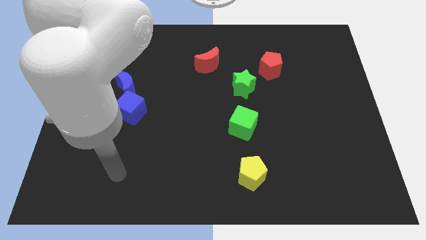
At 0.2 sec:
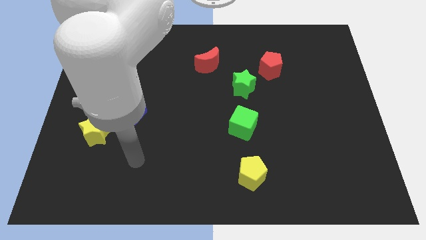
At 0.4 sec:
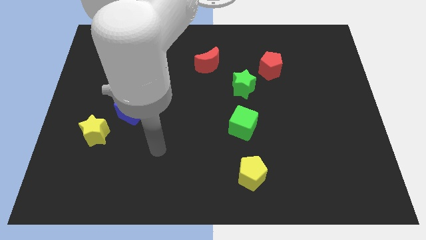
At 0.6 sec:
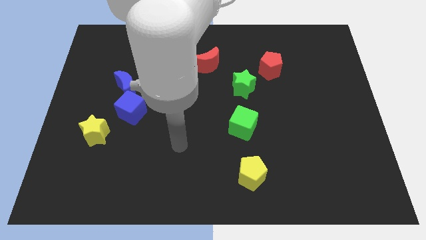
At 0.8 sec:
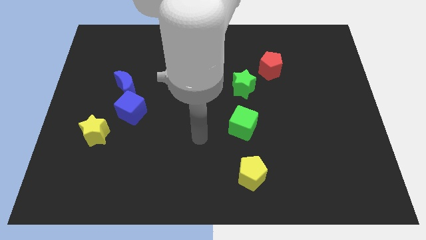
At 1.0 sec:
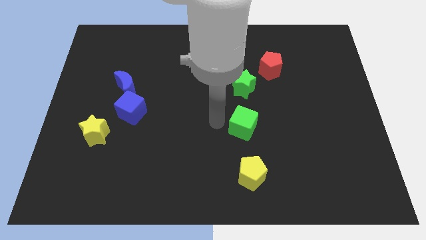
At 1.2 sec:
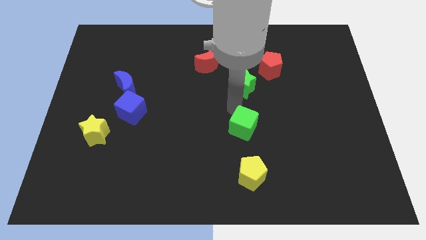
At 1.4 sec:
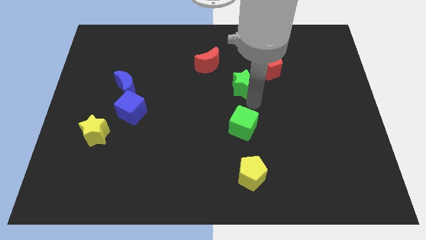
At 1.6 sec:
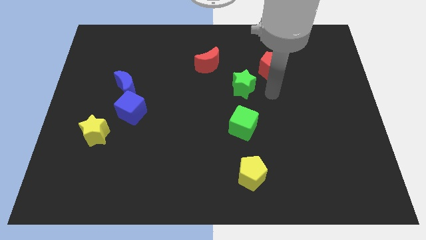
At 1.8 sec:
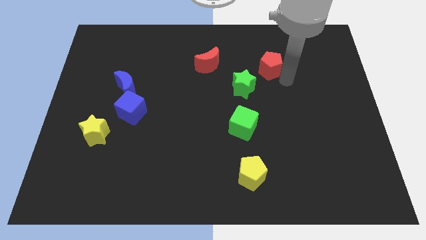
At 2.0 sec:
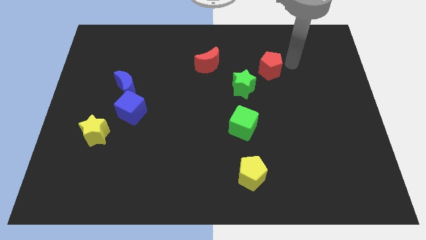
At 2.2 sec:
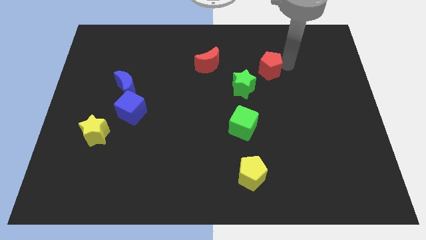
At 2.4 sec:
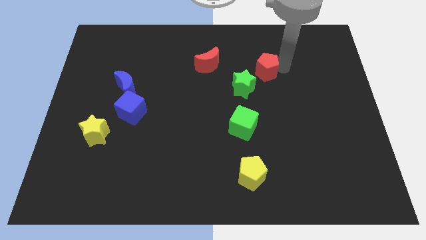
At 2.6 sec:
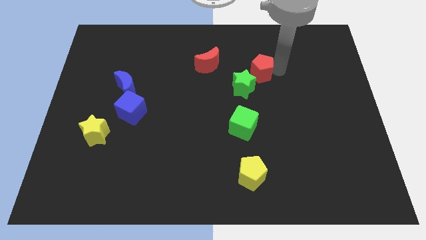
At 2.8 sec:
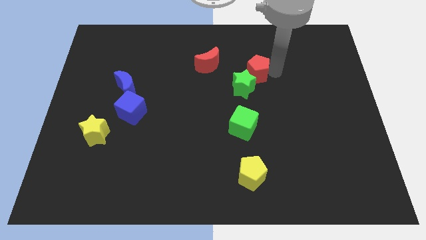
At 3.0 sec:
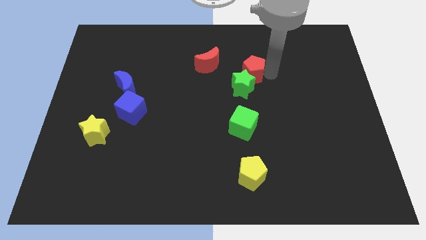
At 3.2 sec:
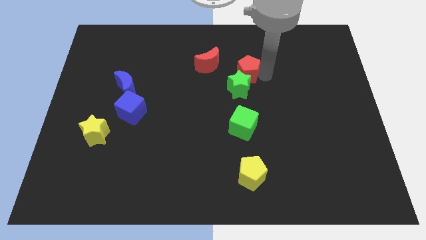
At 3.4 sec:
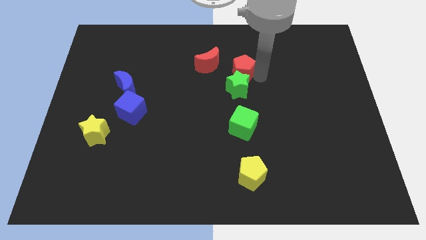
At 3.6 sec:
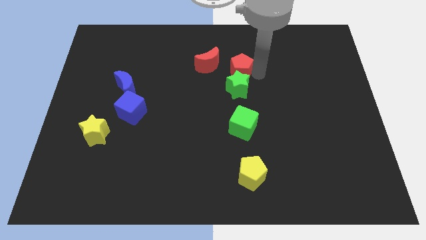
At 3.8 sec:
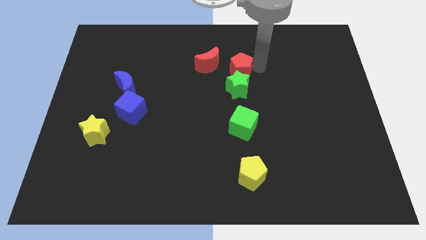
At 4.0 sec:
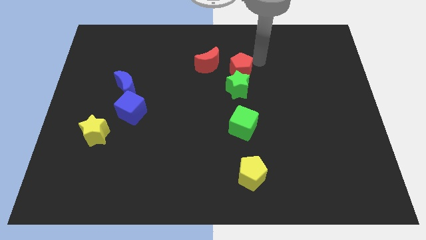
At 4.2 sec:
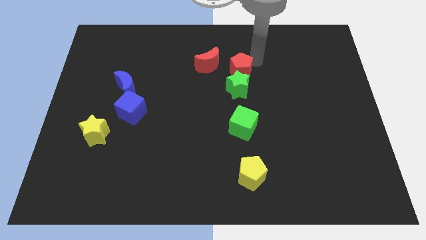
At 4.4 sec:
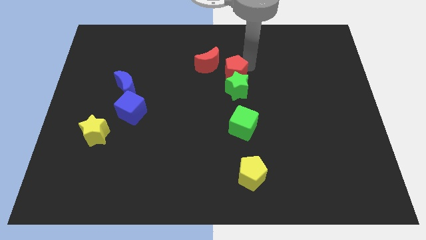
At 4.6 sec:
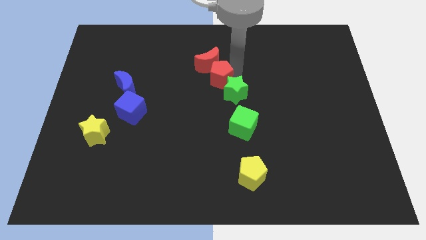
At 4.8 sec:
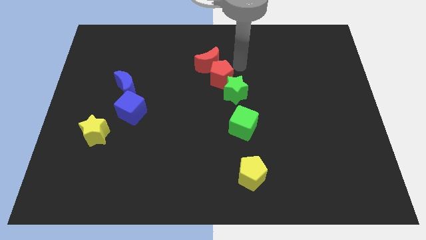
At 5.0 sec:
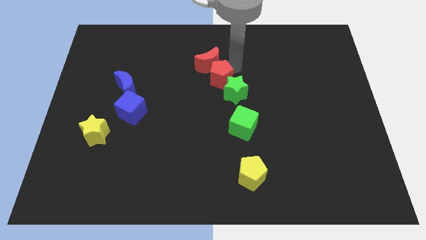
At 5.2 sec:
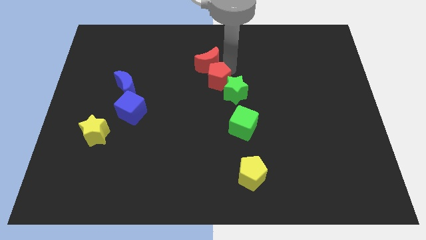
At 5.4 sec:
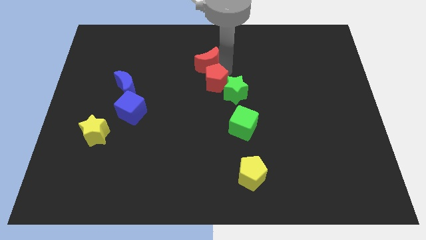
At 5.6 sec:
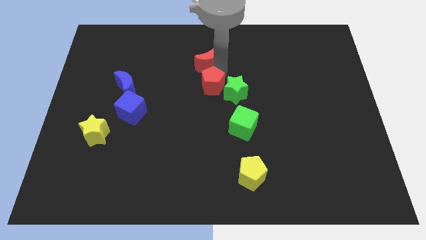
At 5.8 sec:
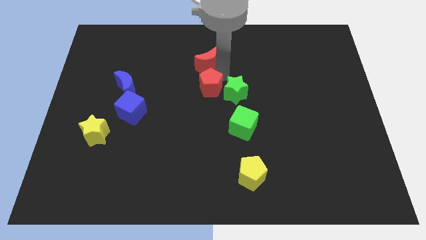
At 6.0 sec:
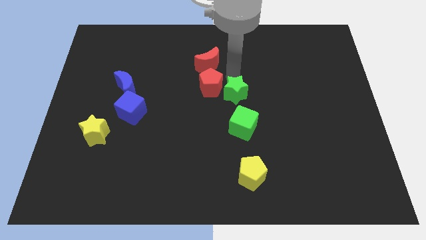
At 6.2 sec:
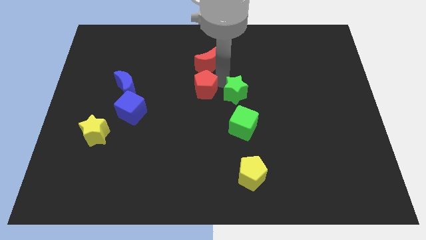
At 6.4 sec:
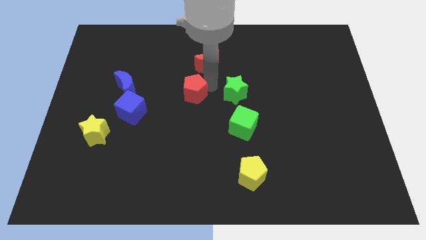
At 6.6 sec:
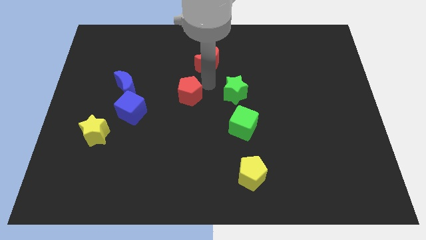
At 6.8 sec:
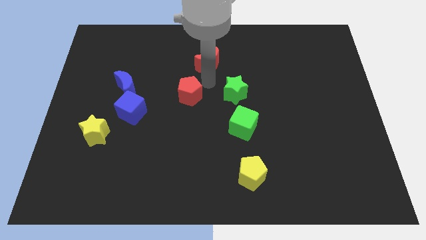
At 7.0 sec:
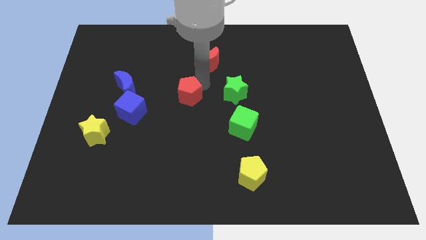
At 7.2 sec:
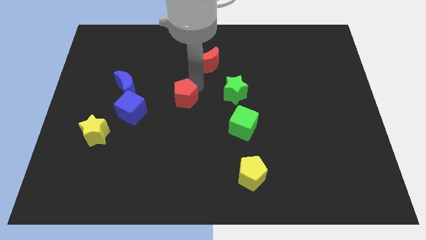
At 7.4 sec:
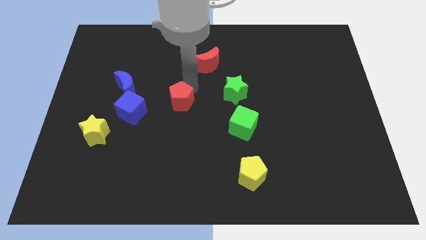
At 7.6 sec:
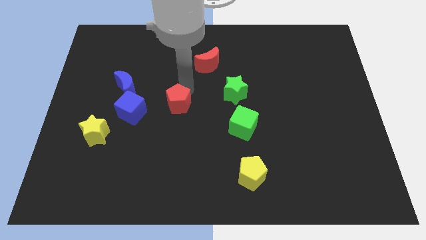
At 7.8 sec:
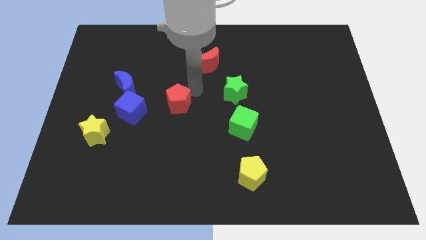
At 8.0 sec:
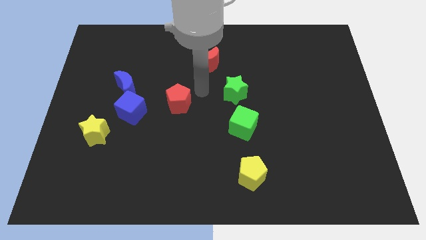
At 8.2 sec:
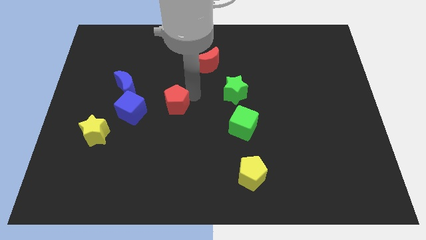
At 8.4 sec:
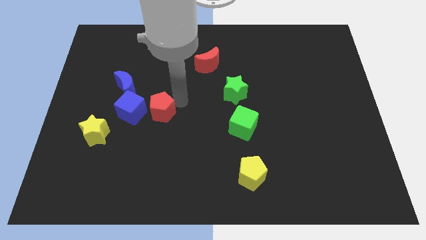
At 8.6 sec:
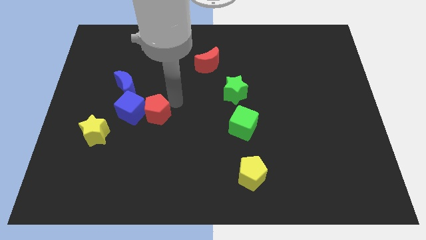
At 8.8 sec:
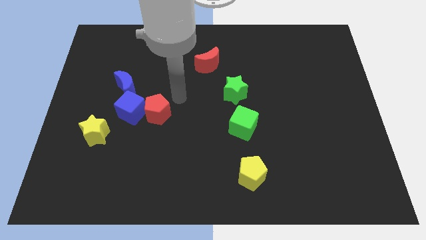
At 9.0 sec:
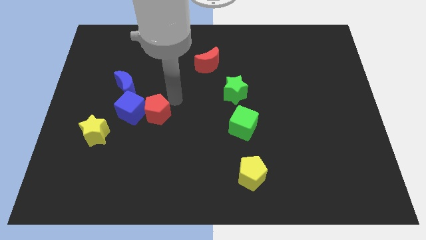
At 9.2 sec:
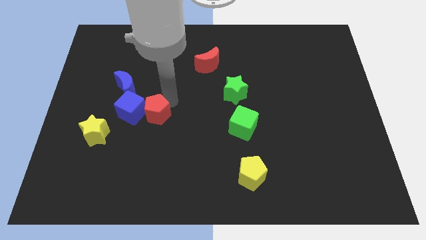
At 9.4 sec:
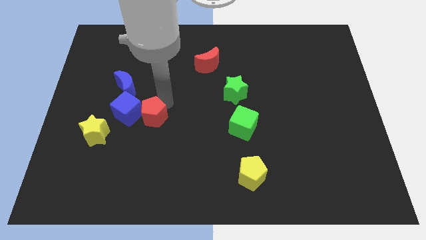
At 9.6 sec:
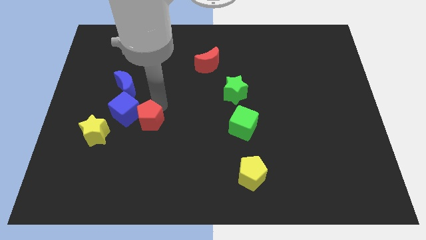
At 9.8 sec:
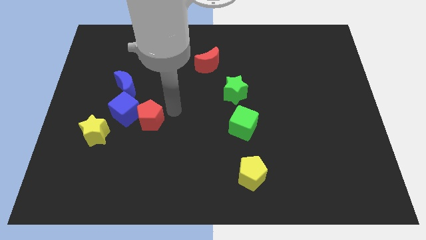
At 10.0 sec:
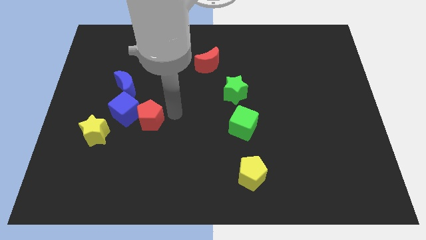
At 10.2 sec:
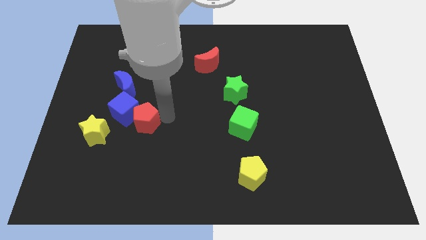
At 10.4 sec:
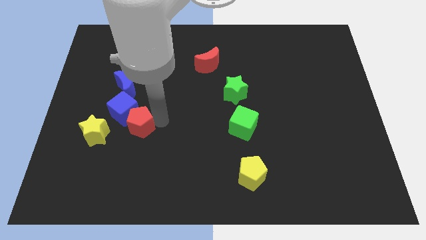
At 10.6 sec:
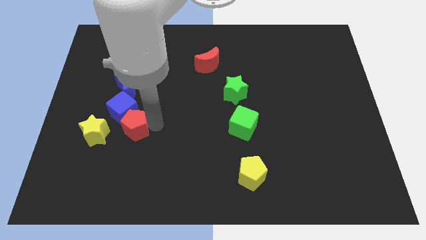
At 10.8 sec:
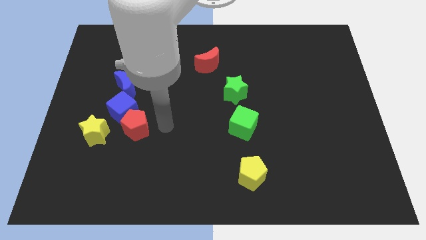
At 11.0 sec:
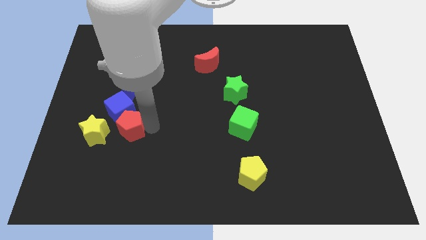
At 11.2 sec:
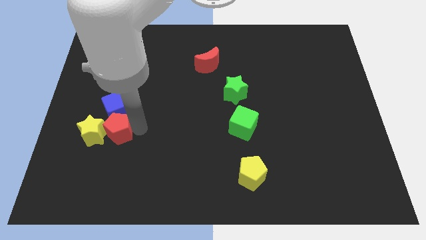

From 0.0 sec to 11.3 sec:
push the red pentagon close to the yellow star

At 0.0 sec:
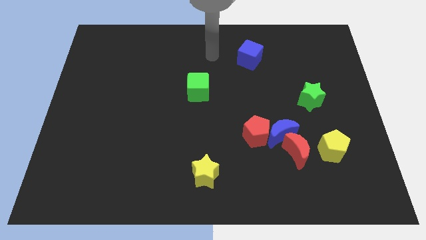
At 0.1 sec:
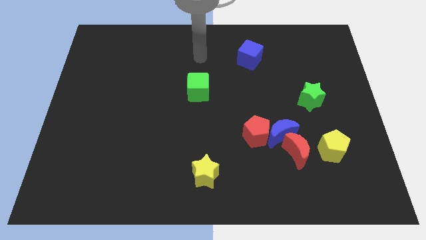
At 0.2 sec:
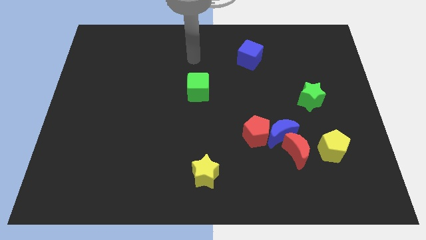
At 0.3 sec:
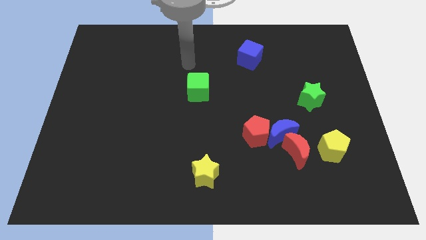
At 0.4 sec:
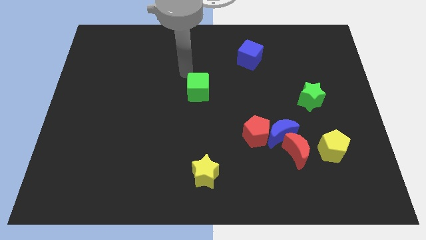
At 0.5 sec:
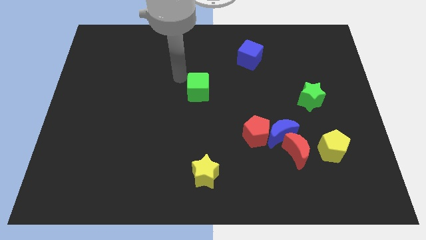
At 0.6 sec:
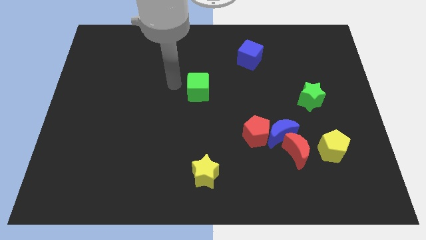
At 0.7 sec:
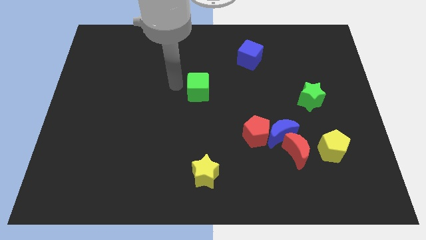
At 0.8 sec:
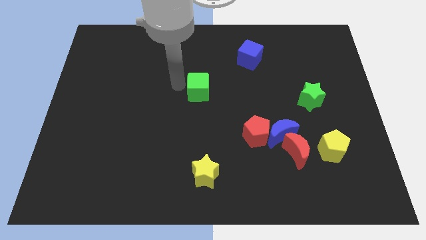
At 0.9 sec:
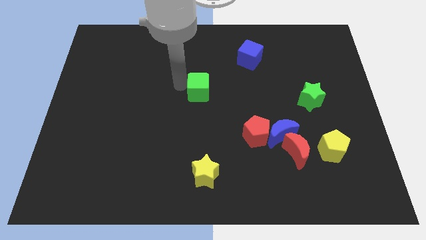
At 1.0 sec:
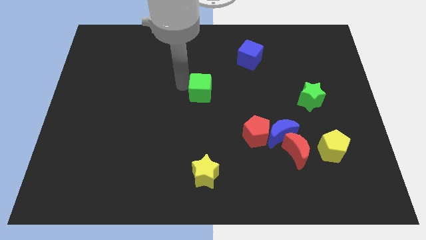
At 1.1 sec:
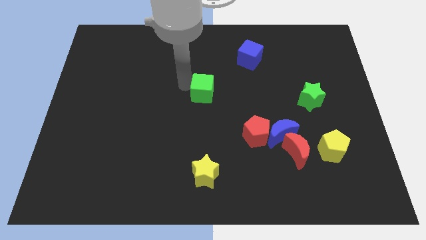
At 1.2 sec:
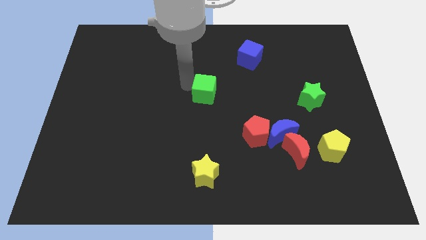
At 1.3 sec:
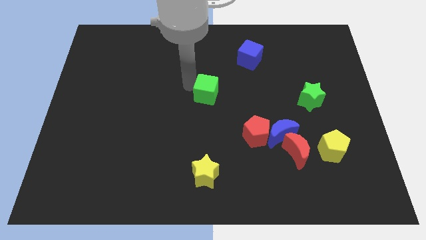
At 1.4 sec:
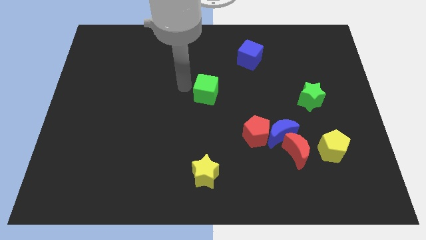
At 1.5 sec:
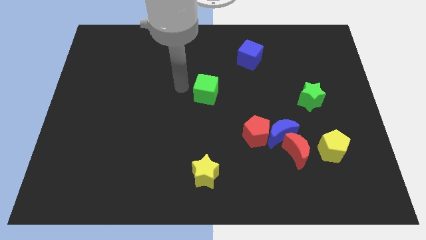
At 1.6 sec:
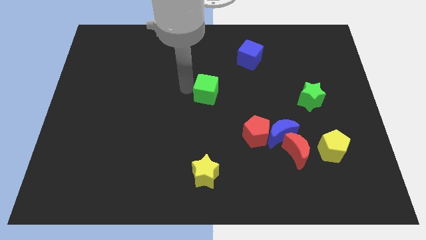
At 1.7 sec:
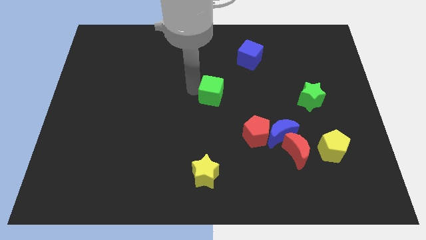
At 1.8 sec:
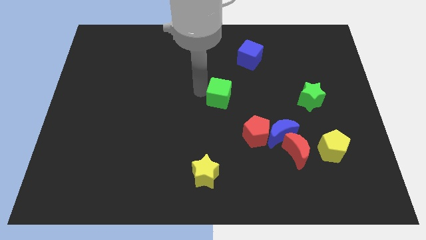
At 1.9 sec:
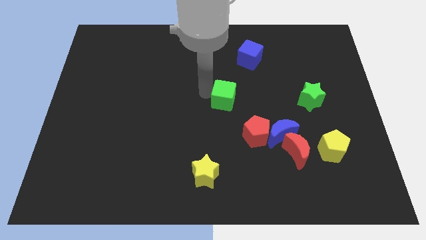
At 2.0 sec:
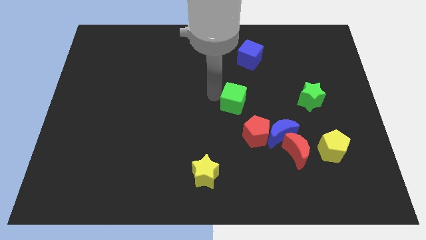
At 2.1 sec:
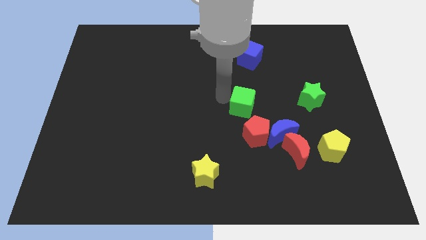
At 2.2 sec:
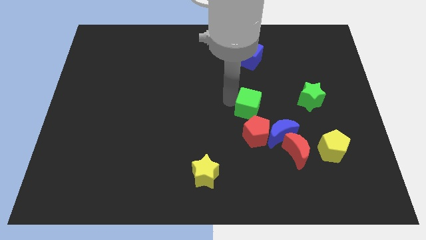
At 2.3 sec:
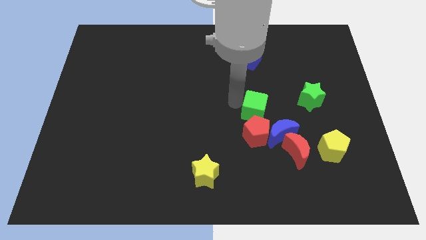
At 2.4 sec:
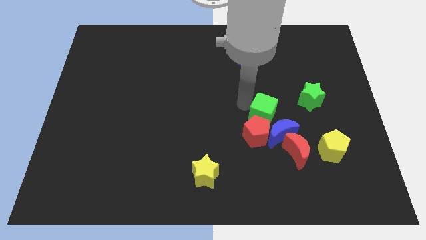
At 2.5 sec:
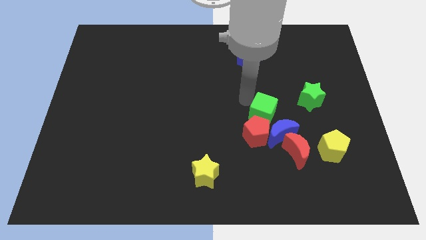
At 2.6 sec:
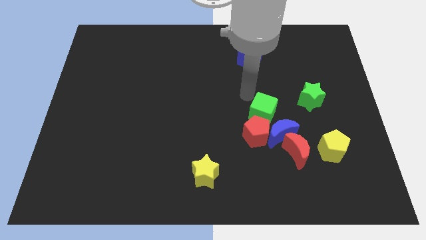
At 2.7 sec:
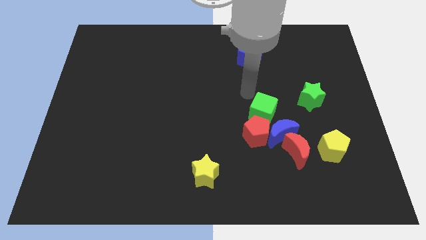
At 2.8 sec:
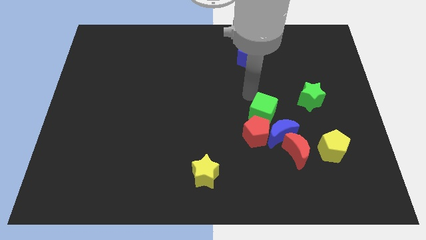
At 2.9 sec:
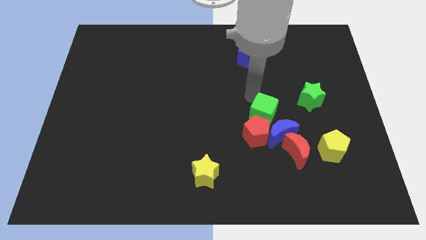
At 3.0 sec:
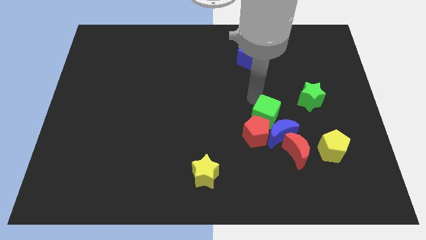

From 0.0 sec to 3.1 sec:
slide the green cube next to the blue moon
